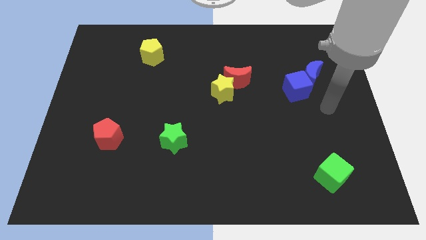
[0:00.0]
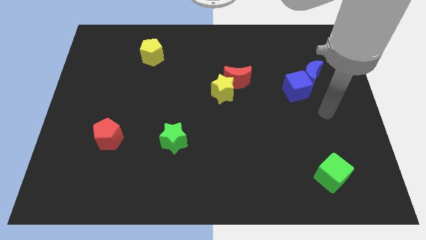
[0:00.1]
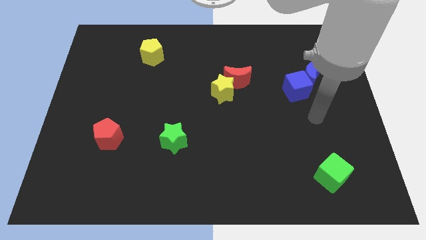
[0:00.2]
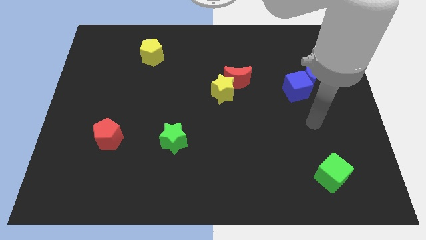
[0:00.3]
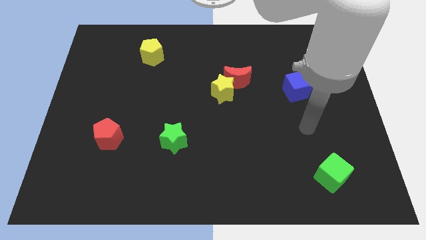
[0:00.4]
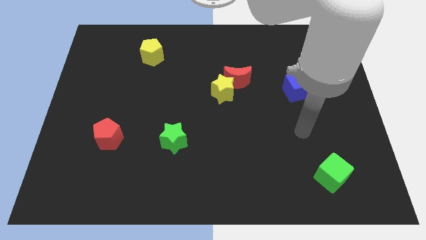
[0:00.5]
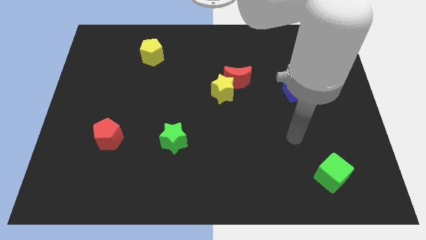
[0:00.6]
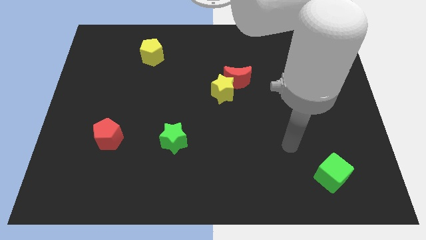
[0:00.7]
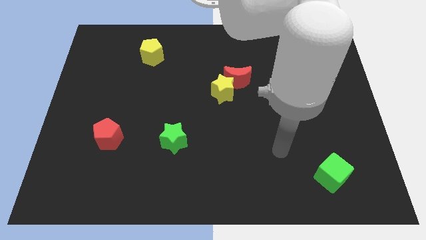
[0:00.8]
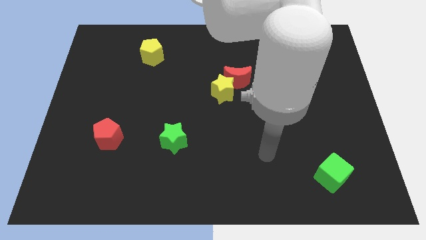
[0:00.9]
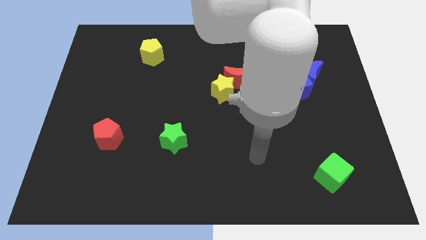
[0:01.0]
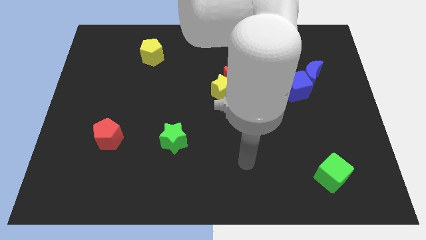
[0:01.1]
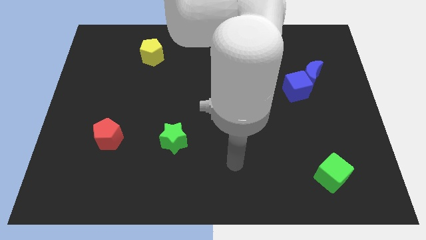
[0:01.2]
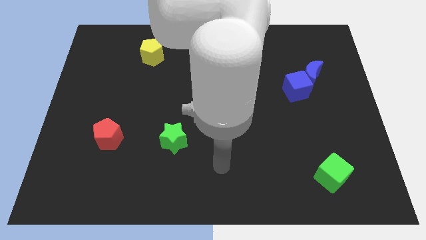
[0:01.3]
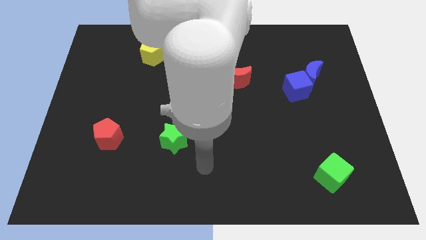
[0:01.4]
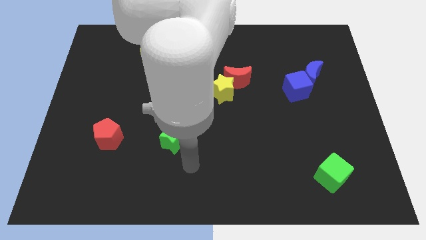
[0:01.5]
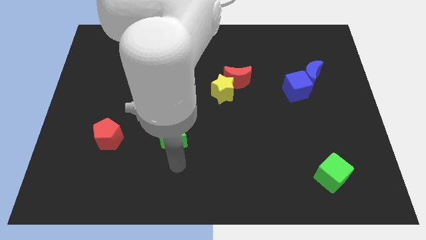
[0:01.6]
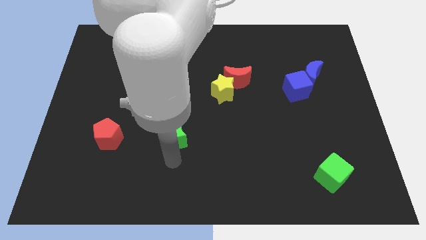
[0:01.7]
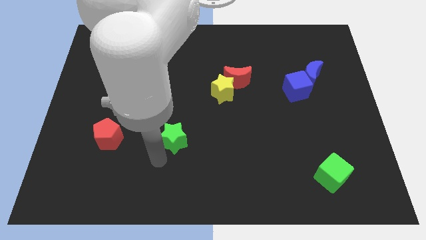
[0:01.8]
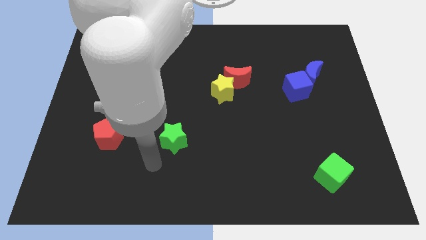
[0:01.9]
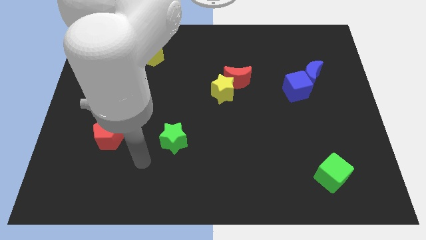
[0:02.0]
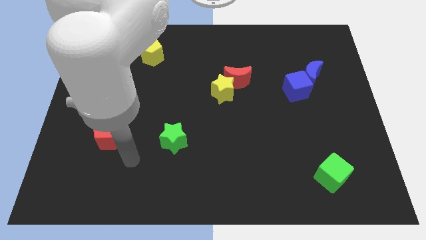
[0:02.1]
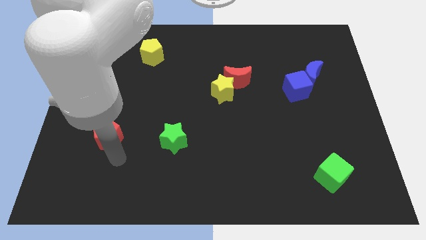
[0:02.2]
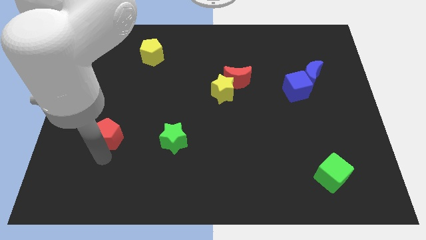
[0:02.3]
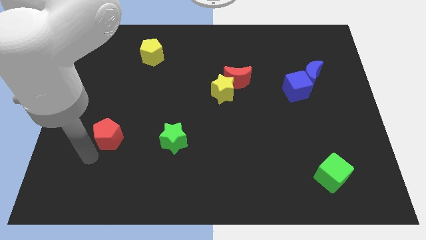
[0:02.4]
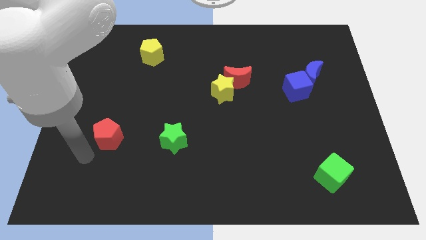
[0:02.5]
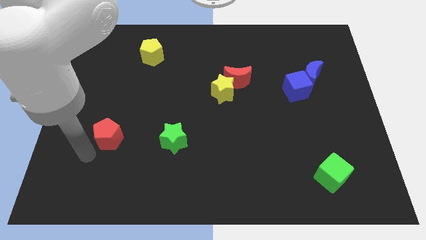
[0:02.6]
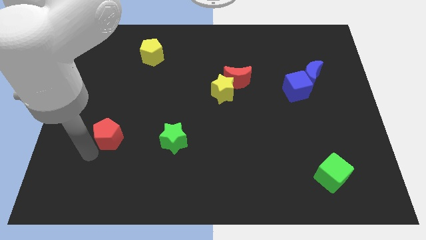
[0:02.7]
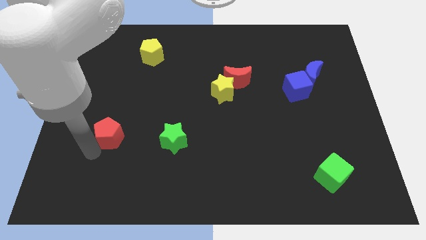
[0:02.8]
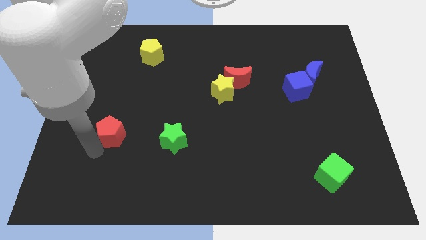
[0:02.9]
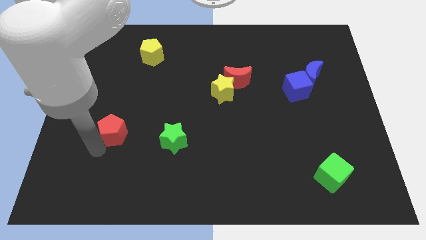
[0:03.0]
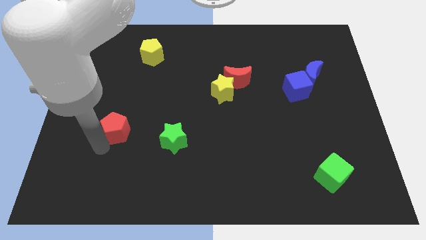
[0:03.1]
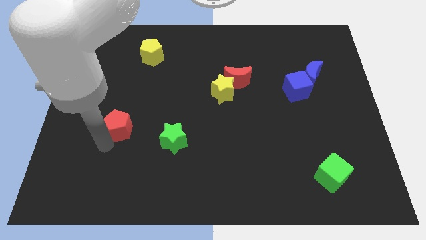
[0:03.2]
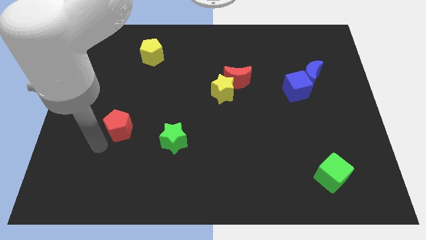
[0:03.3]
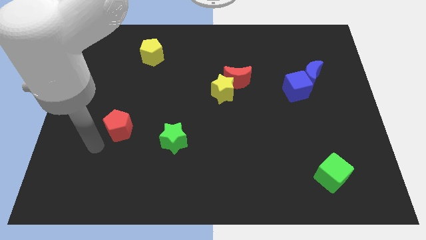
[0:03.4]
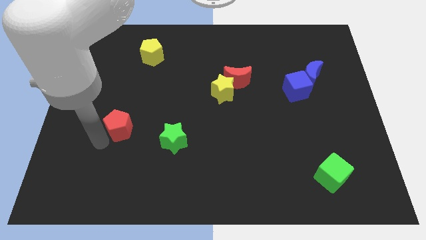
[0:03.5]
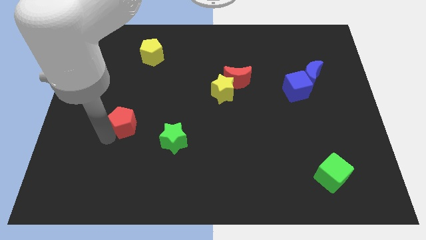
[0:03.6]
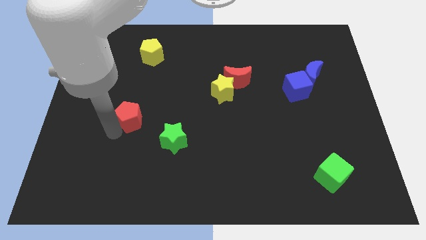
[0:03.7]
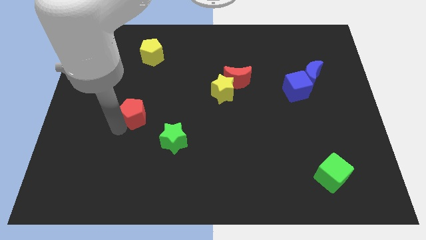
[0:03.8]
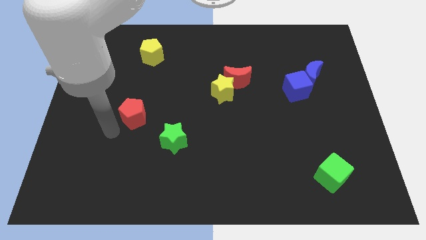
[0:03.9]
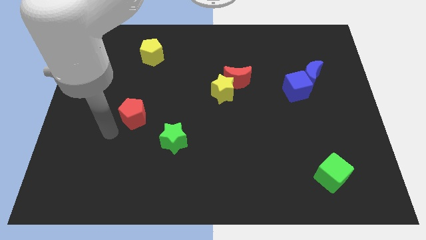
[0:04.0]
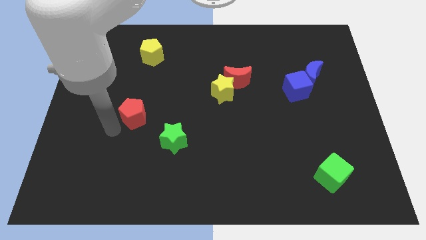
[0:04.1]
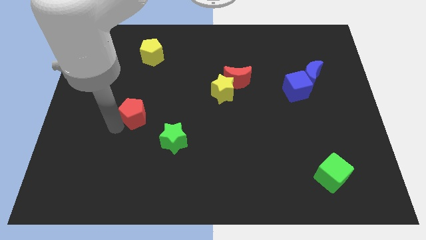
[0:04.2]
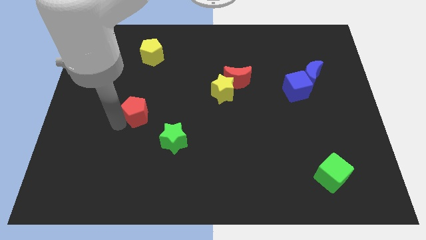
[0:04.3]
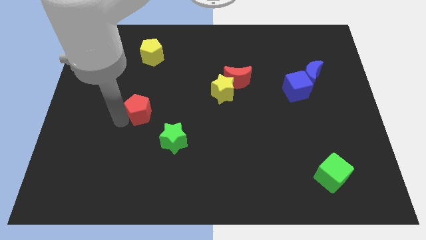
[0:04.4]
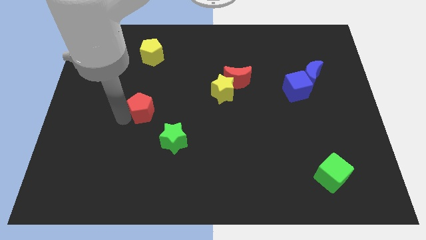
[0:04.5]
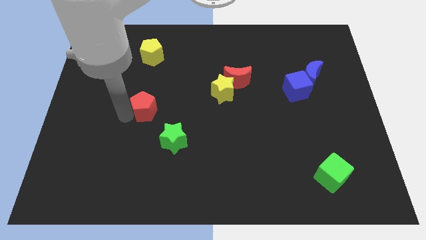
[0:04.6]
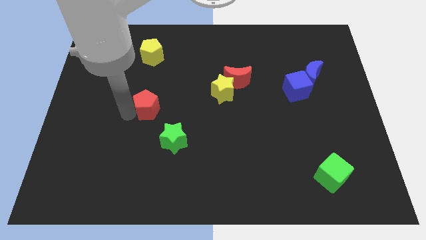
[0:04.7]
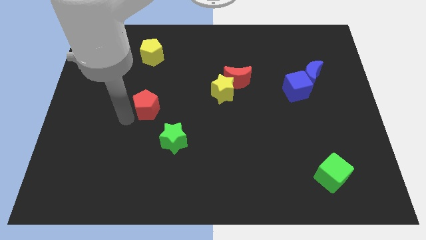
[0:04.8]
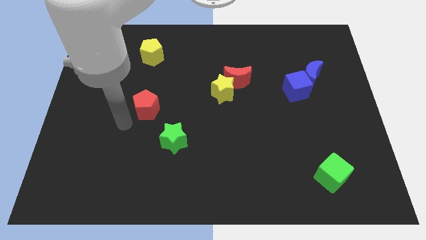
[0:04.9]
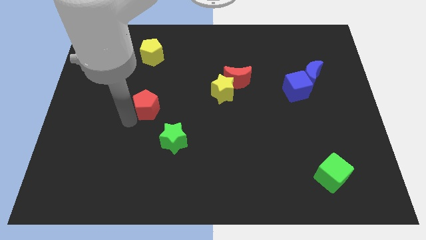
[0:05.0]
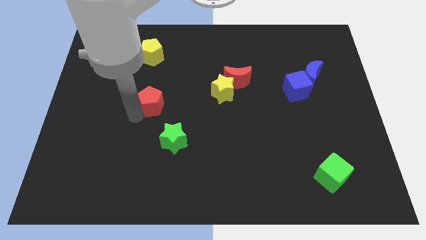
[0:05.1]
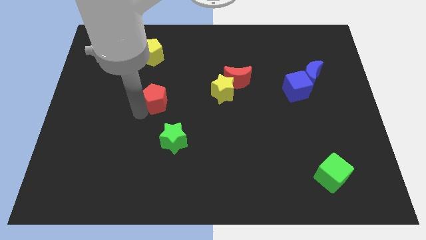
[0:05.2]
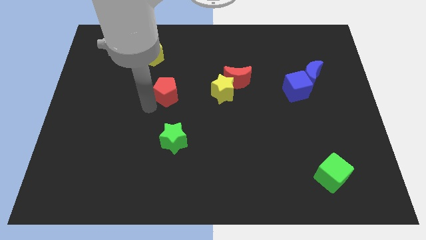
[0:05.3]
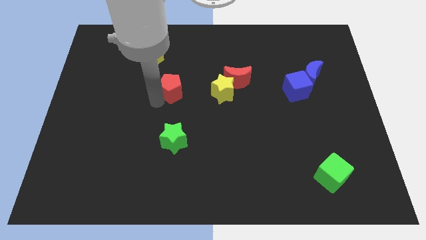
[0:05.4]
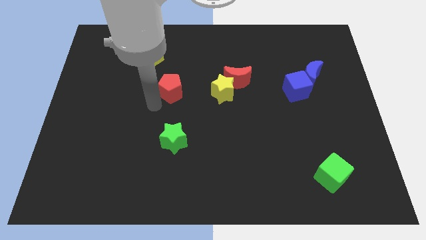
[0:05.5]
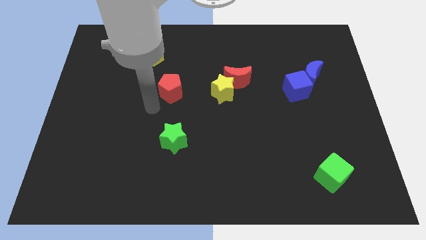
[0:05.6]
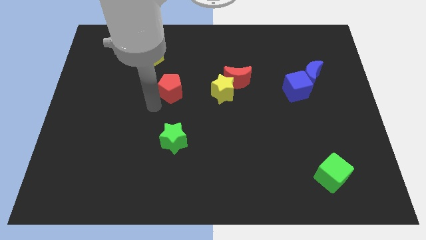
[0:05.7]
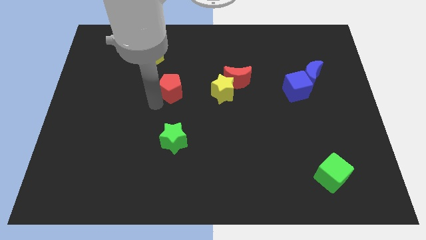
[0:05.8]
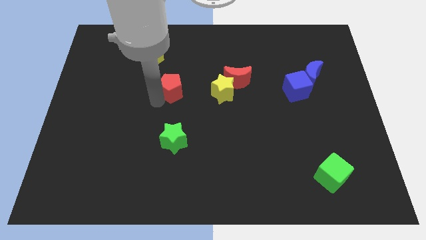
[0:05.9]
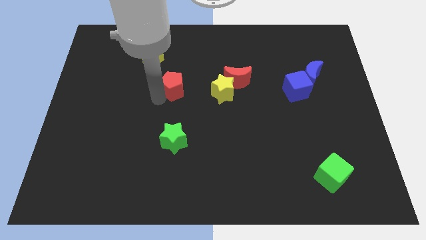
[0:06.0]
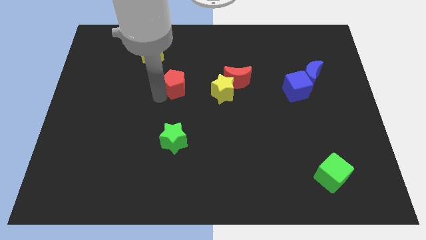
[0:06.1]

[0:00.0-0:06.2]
move the red pentagon upwards and then to the right

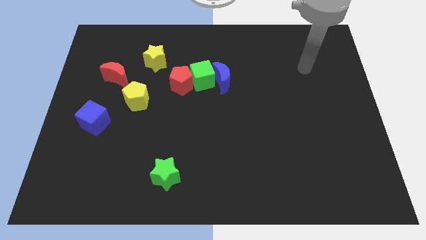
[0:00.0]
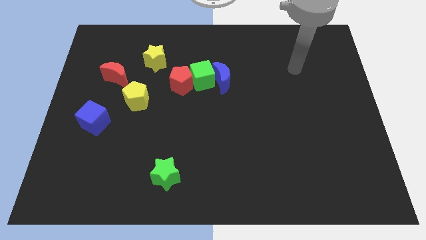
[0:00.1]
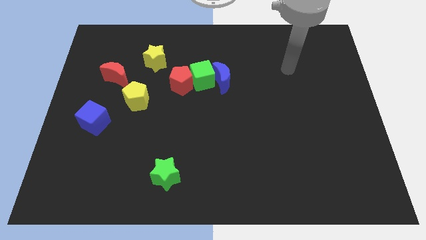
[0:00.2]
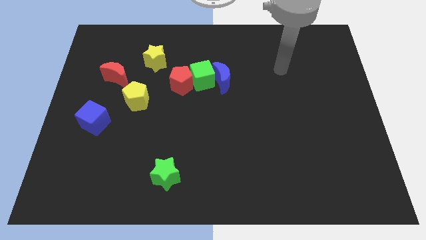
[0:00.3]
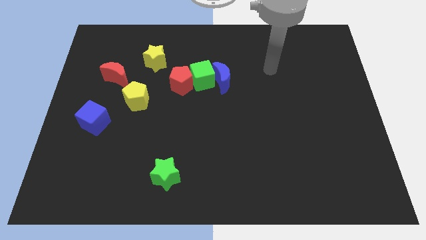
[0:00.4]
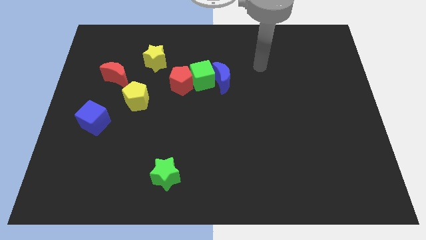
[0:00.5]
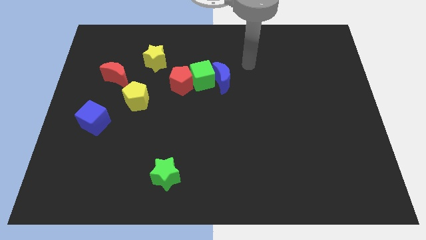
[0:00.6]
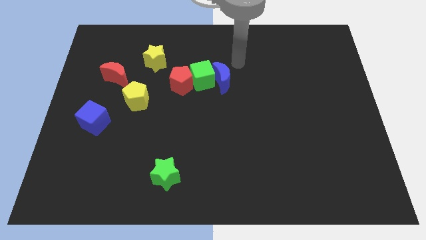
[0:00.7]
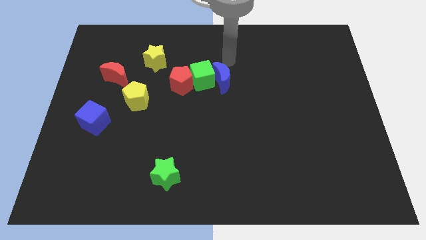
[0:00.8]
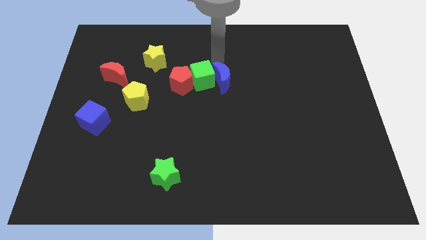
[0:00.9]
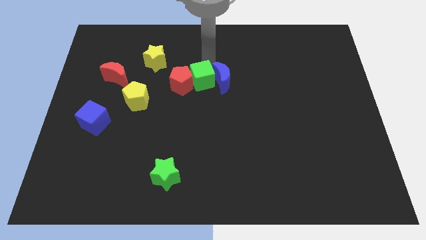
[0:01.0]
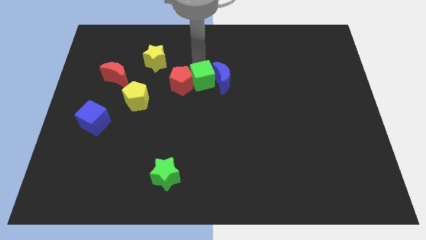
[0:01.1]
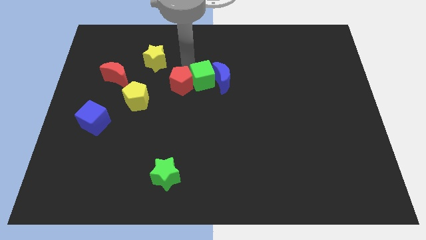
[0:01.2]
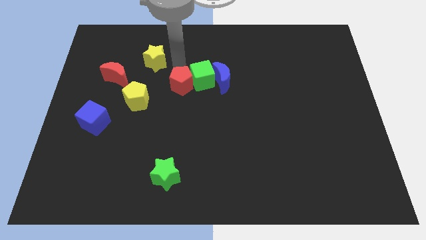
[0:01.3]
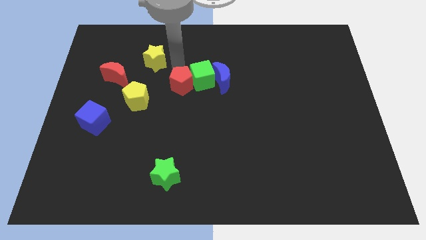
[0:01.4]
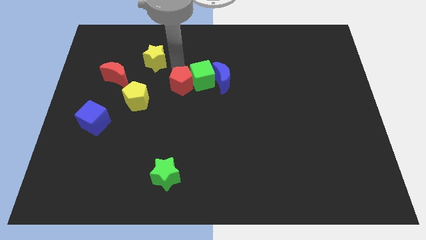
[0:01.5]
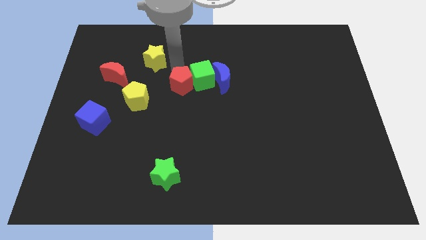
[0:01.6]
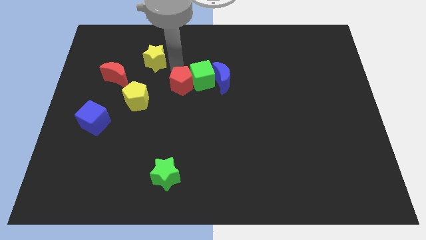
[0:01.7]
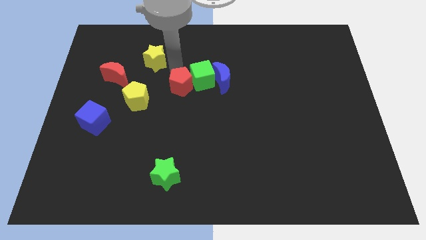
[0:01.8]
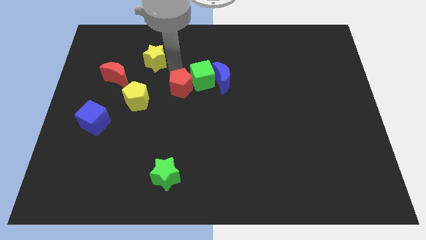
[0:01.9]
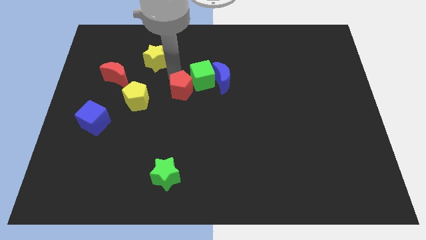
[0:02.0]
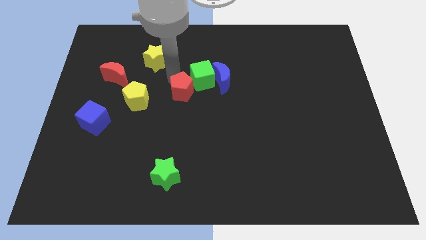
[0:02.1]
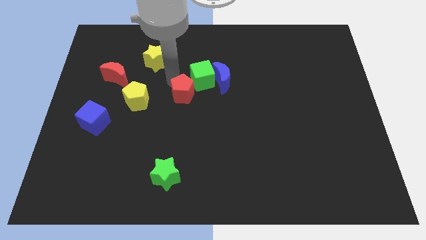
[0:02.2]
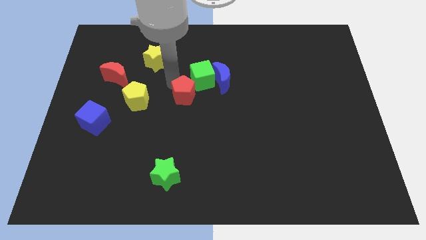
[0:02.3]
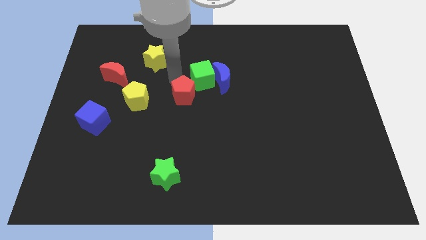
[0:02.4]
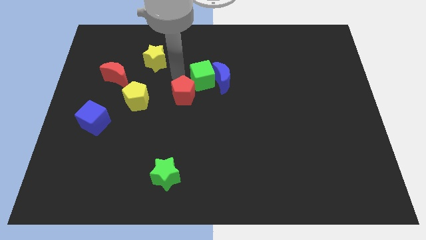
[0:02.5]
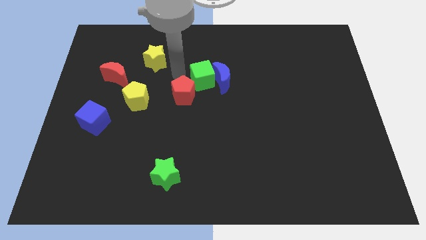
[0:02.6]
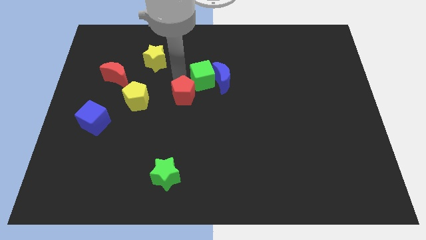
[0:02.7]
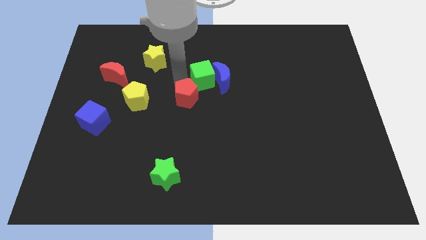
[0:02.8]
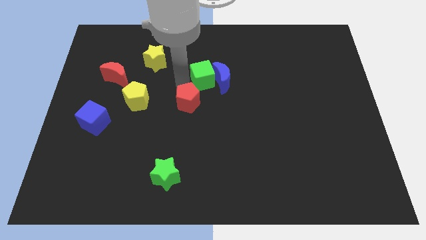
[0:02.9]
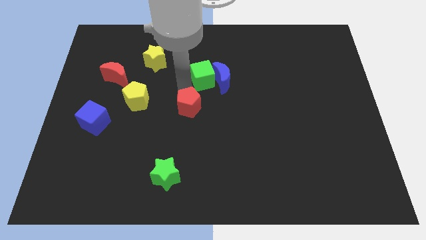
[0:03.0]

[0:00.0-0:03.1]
move the red pentagon down a little bit
